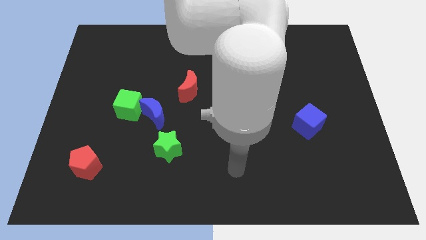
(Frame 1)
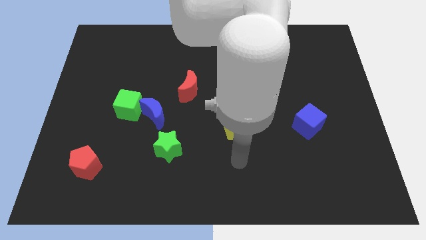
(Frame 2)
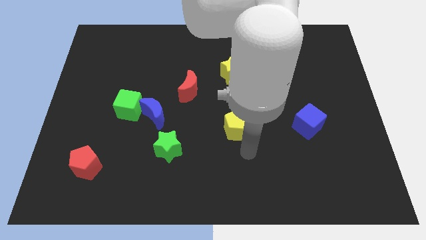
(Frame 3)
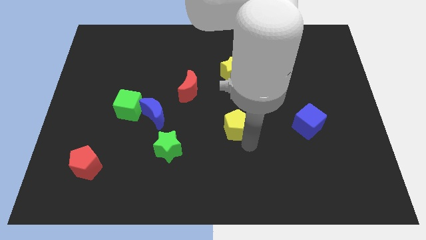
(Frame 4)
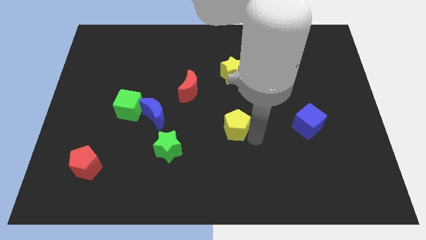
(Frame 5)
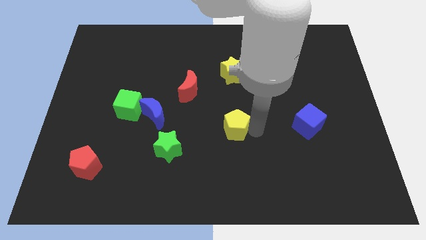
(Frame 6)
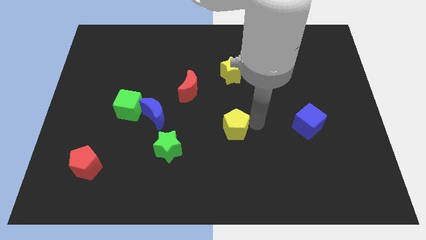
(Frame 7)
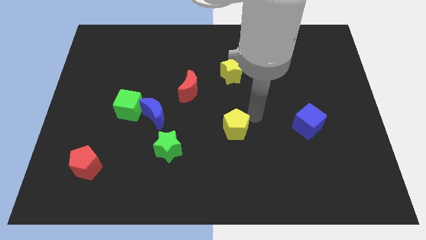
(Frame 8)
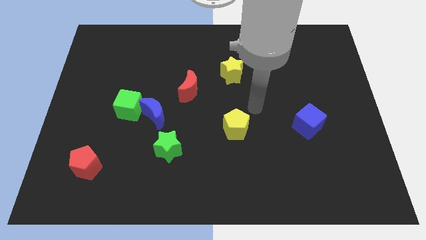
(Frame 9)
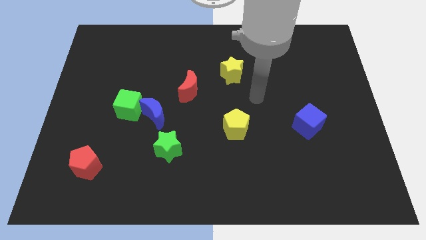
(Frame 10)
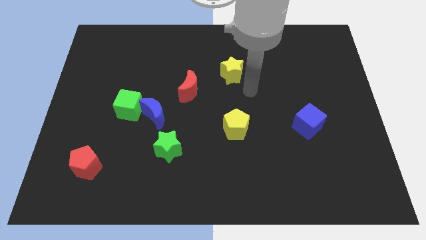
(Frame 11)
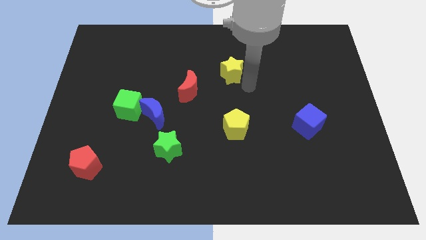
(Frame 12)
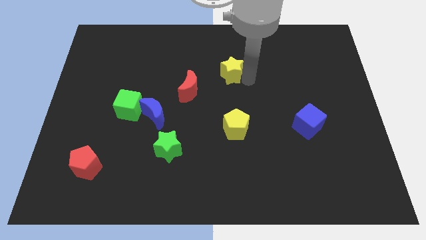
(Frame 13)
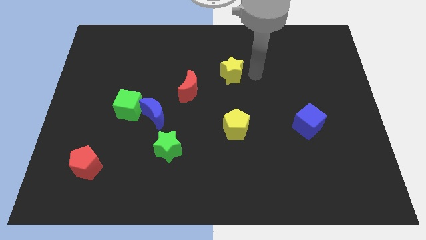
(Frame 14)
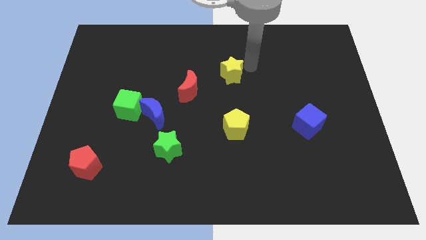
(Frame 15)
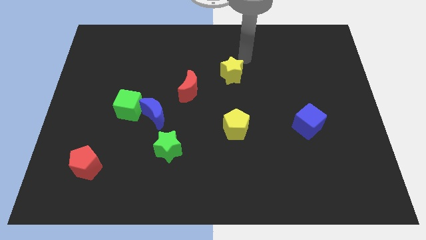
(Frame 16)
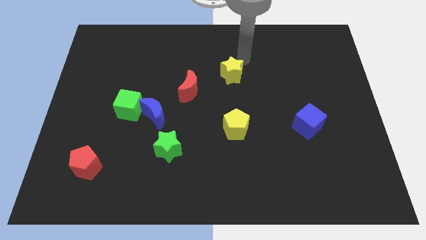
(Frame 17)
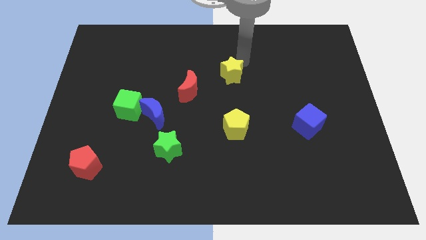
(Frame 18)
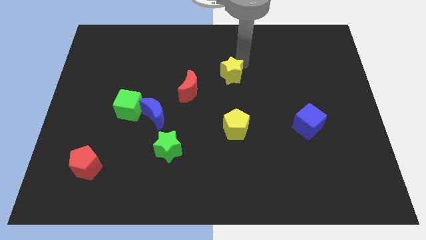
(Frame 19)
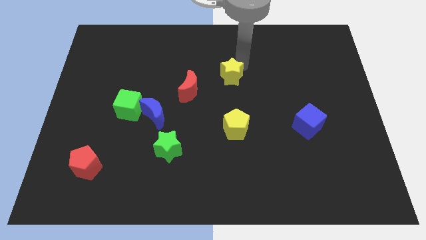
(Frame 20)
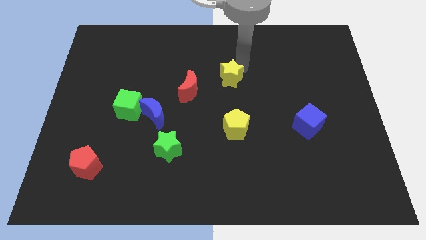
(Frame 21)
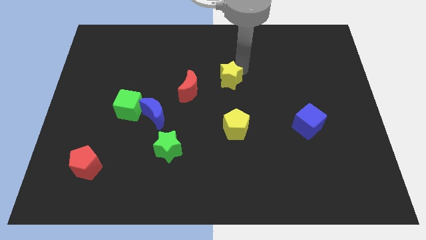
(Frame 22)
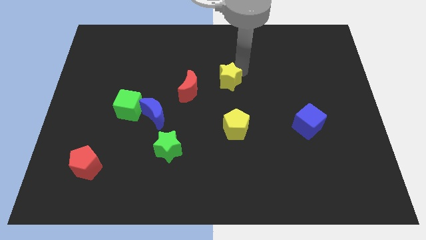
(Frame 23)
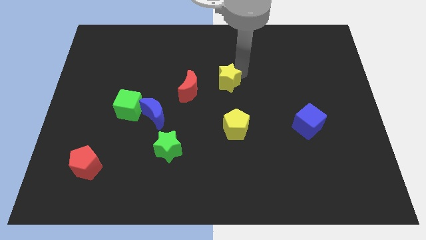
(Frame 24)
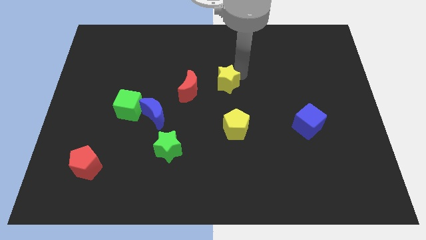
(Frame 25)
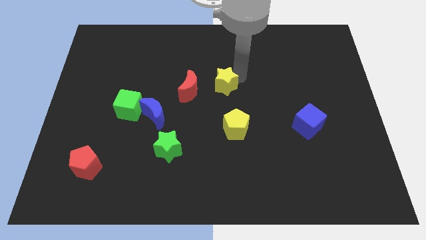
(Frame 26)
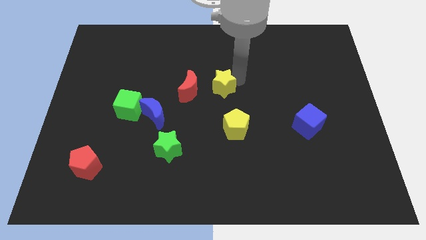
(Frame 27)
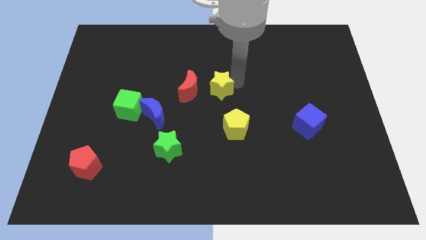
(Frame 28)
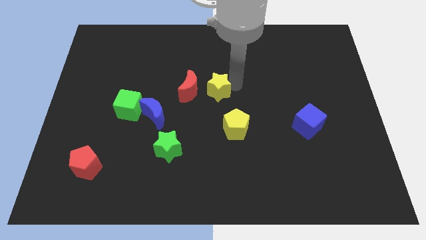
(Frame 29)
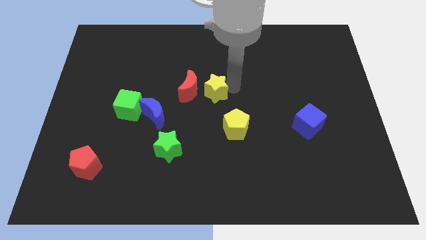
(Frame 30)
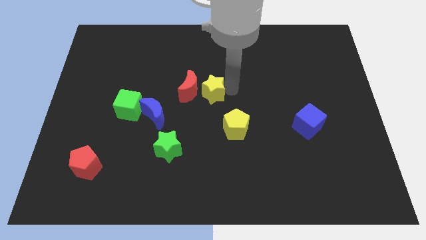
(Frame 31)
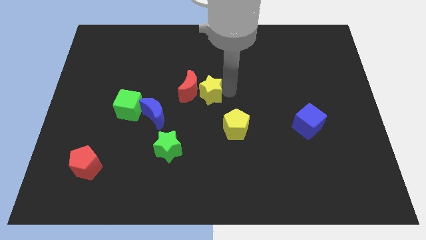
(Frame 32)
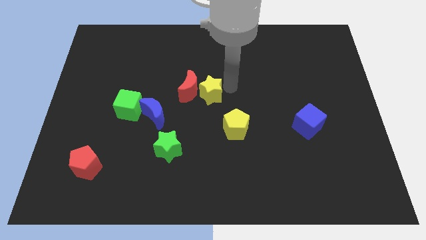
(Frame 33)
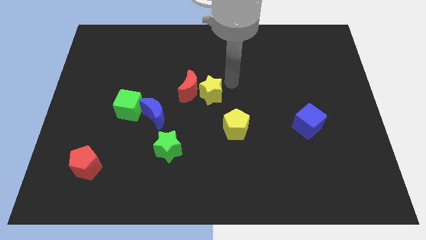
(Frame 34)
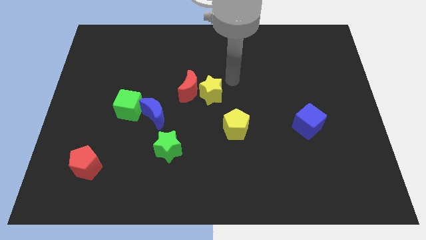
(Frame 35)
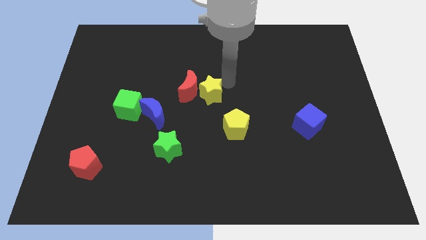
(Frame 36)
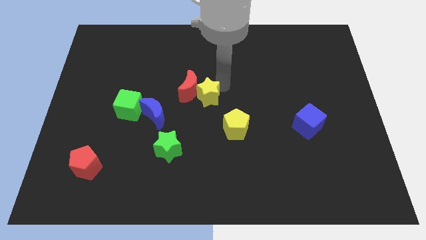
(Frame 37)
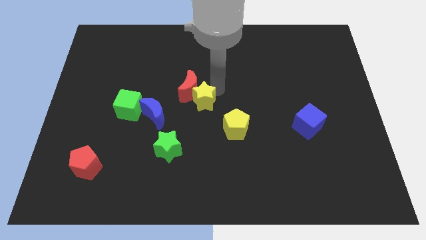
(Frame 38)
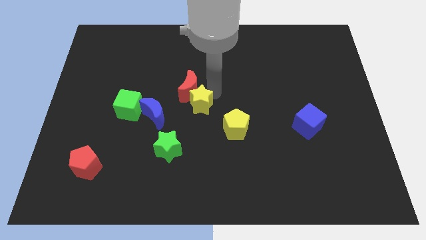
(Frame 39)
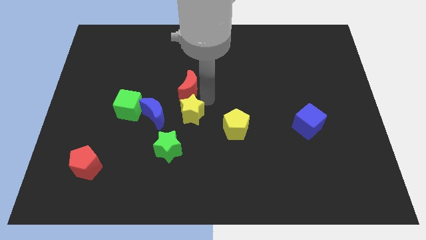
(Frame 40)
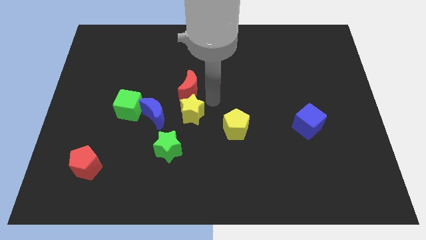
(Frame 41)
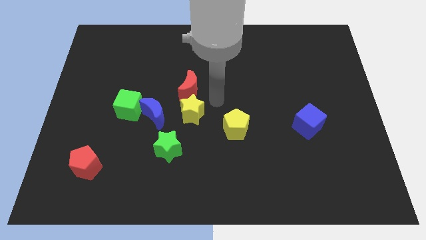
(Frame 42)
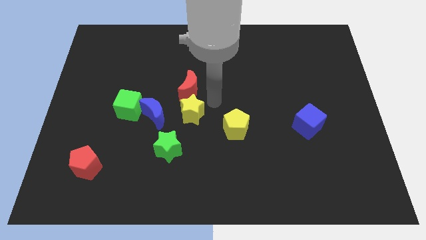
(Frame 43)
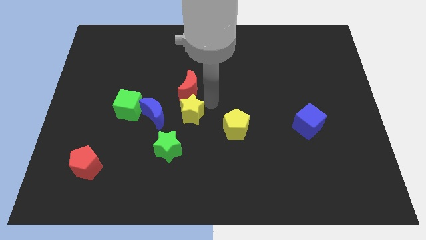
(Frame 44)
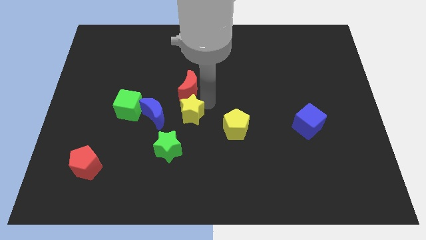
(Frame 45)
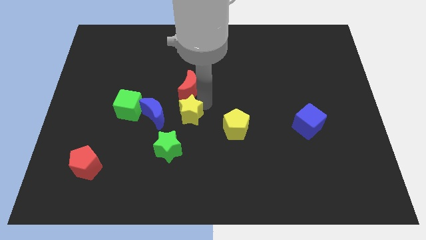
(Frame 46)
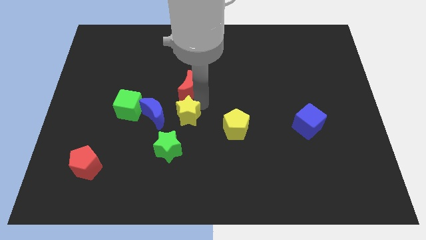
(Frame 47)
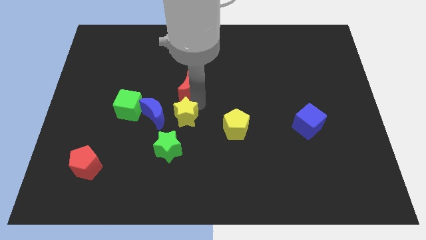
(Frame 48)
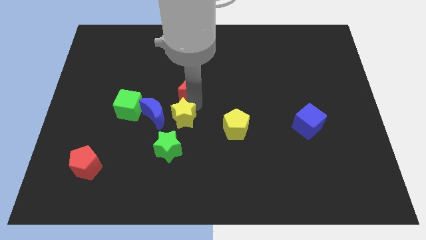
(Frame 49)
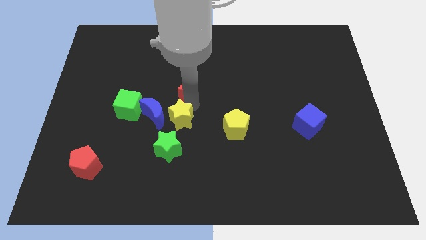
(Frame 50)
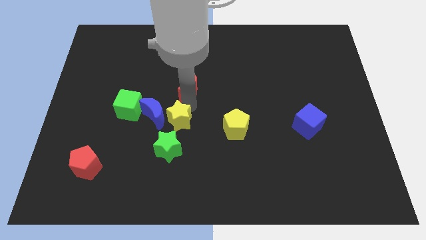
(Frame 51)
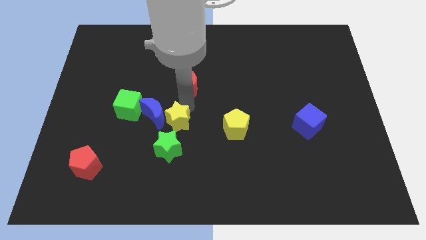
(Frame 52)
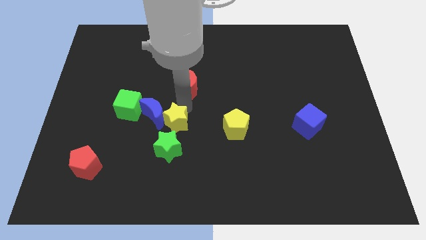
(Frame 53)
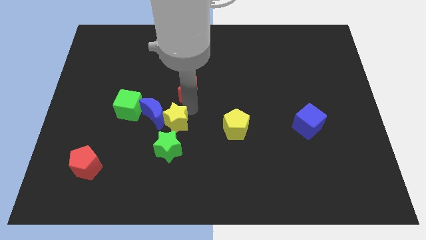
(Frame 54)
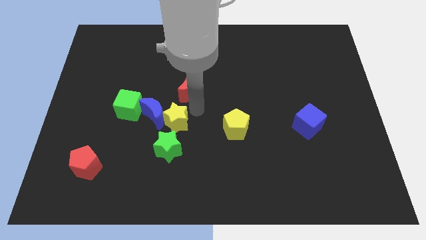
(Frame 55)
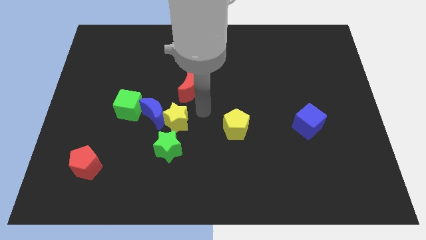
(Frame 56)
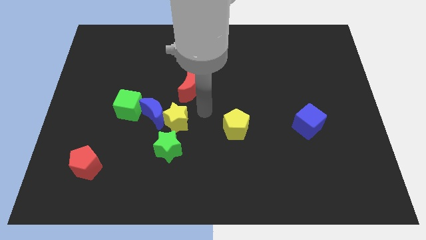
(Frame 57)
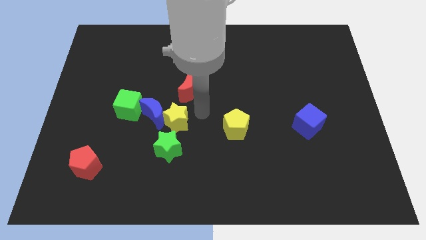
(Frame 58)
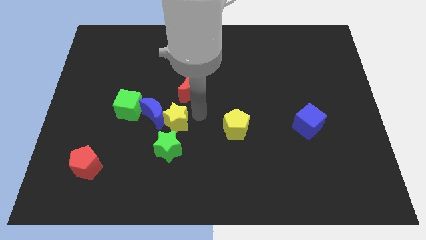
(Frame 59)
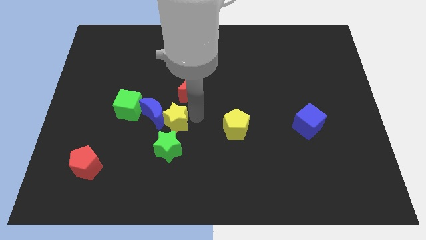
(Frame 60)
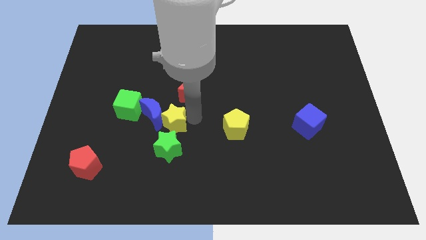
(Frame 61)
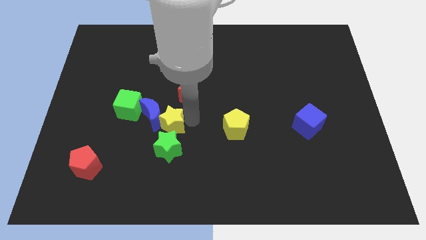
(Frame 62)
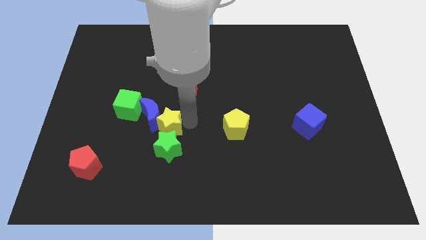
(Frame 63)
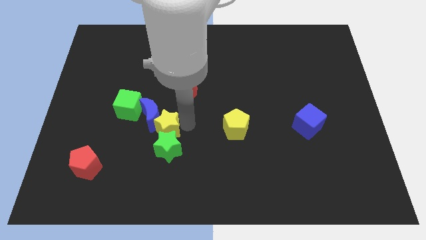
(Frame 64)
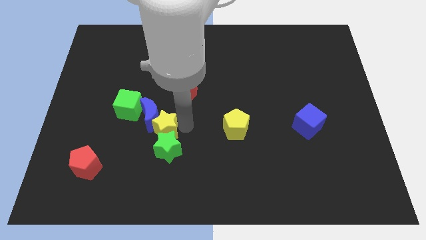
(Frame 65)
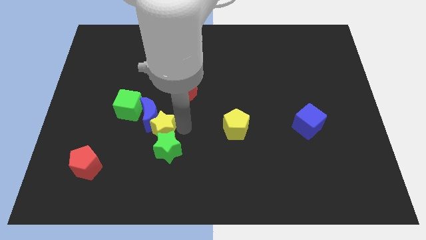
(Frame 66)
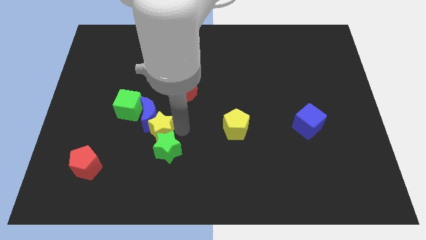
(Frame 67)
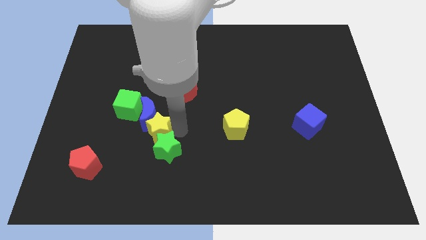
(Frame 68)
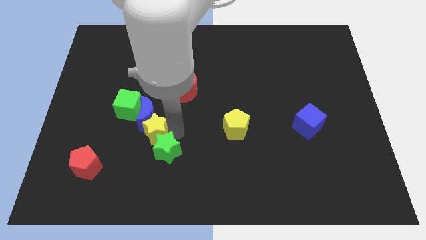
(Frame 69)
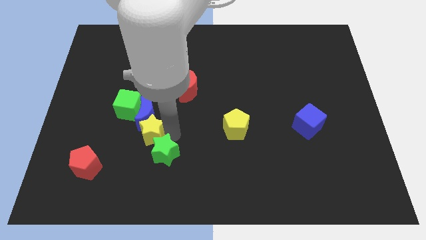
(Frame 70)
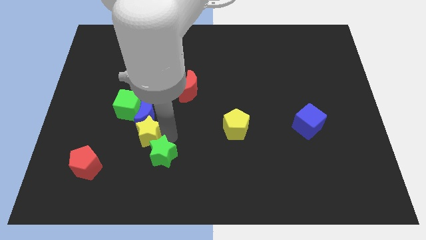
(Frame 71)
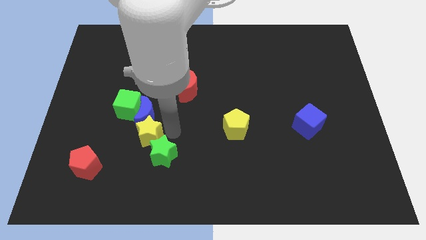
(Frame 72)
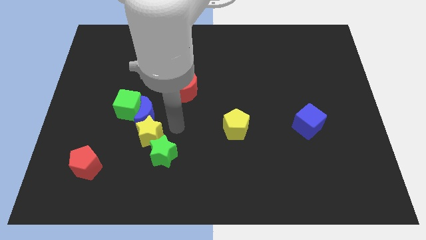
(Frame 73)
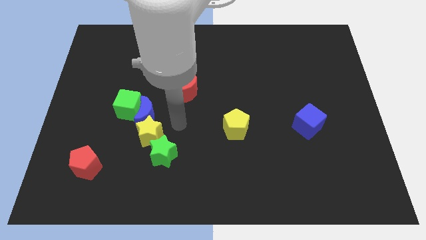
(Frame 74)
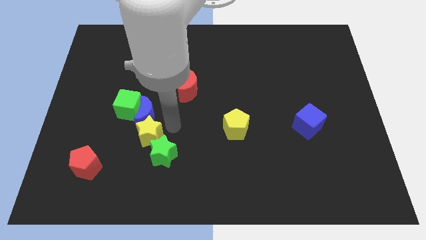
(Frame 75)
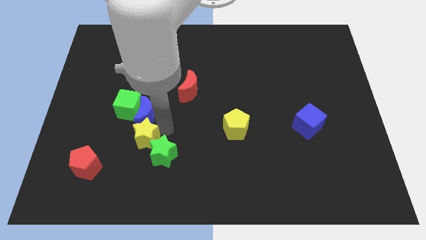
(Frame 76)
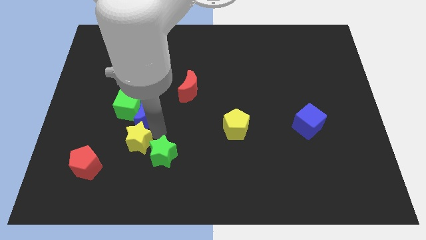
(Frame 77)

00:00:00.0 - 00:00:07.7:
put the yellow star to the bottom of the green cube
